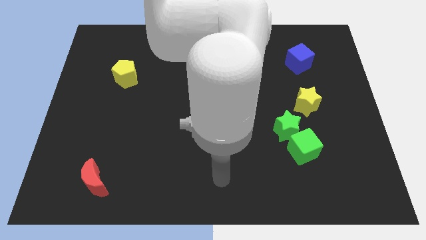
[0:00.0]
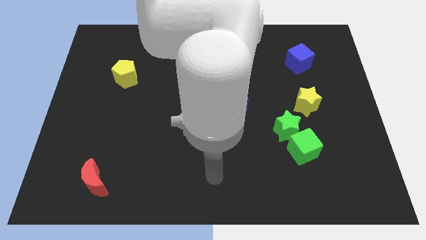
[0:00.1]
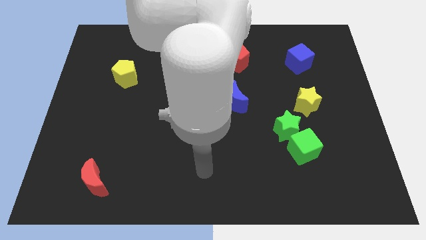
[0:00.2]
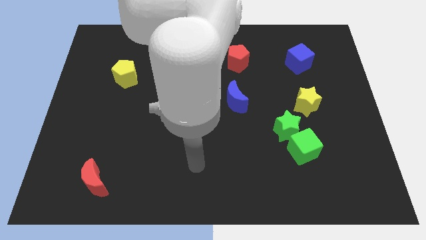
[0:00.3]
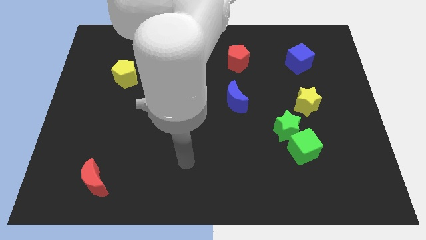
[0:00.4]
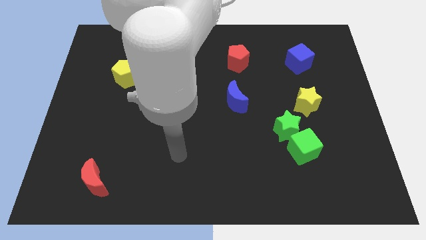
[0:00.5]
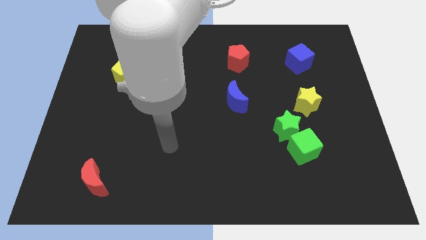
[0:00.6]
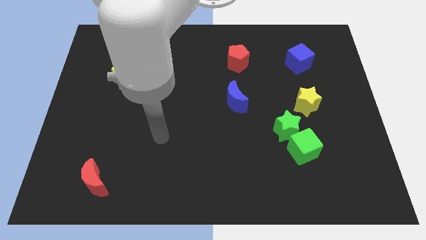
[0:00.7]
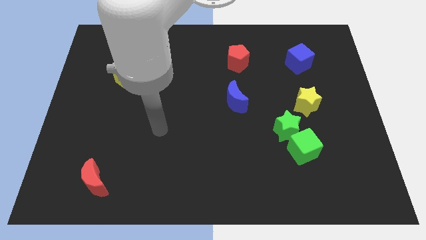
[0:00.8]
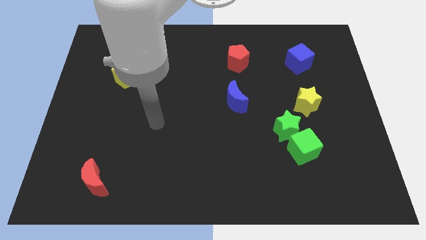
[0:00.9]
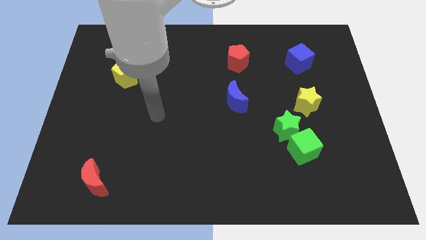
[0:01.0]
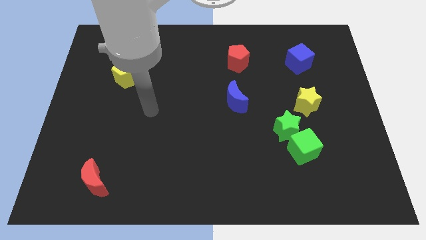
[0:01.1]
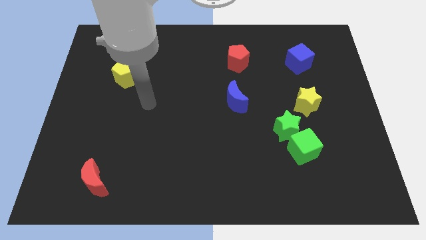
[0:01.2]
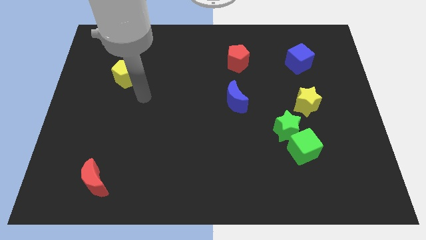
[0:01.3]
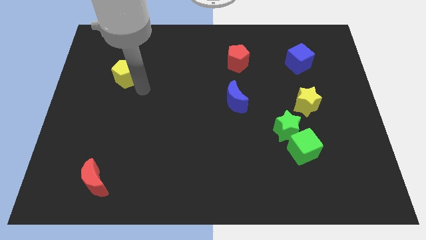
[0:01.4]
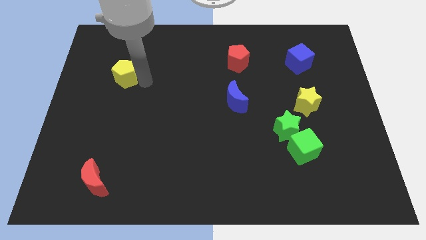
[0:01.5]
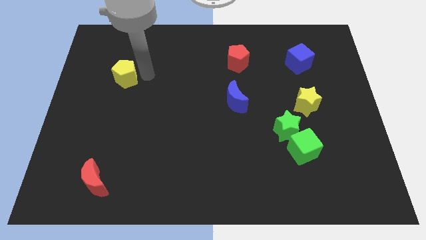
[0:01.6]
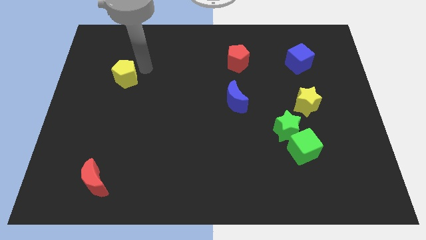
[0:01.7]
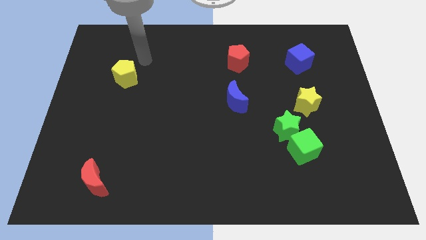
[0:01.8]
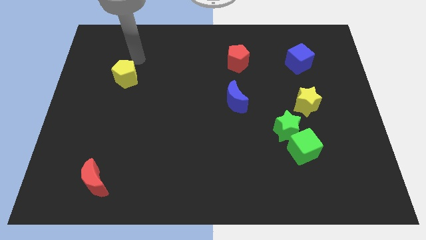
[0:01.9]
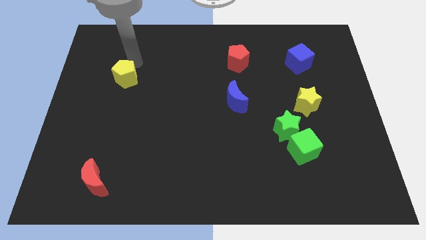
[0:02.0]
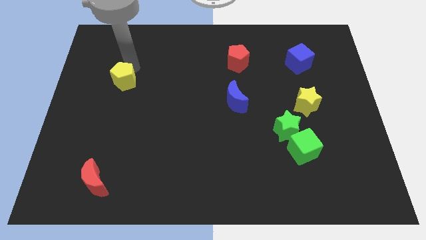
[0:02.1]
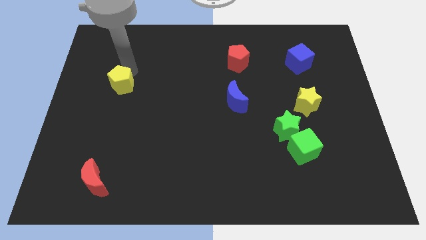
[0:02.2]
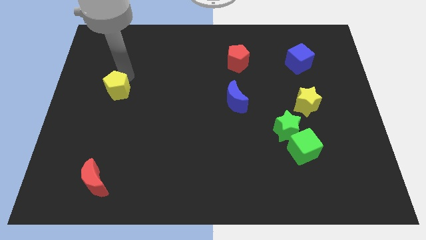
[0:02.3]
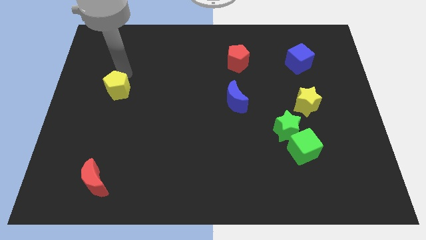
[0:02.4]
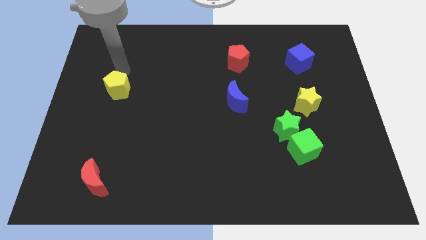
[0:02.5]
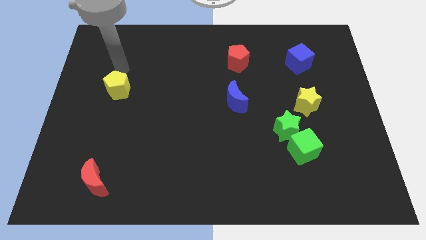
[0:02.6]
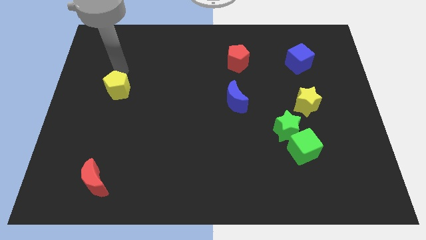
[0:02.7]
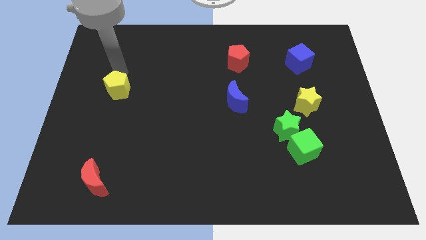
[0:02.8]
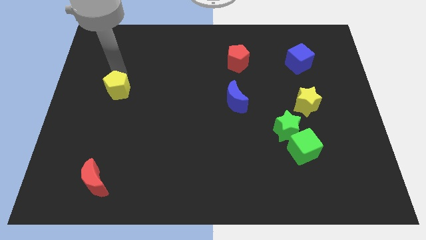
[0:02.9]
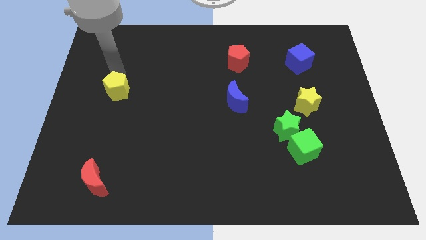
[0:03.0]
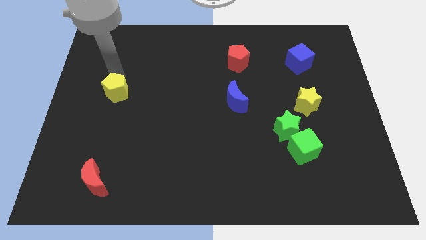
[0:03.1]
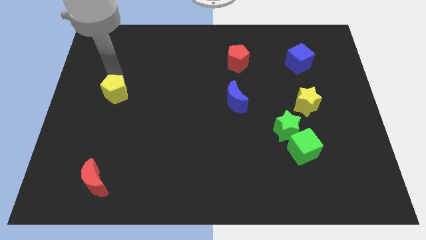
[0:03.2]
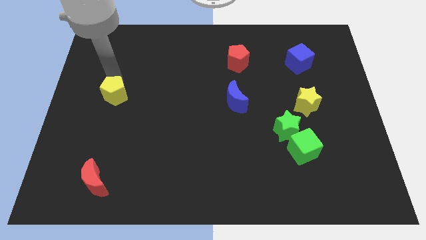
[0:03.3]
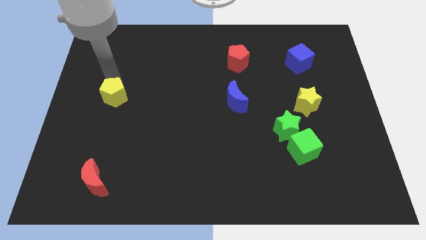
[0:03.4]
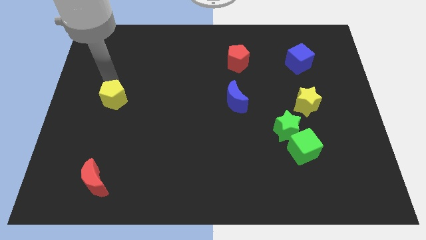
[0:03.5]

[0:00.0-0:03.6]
push the yellow pentagon down slightly

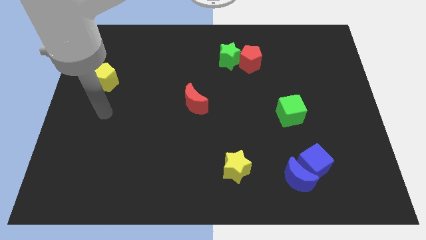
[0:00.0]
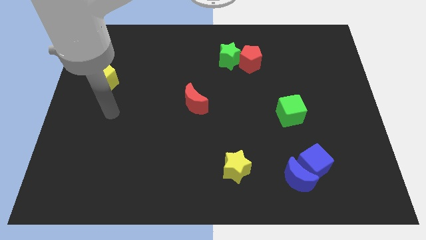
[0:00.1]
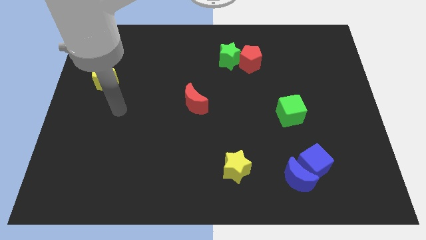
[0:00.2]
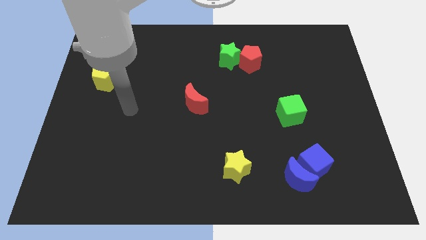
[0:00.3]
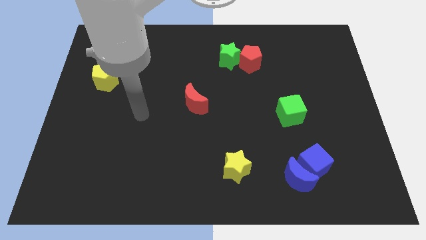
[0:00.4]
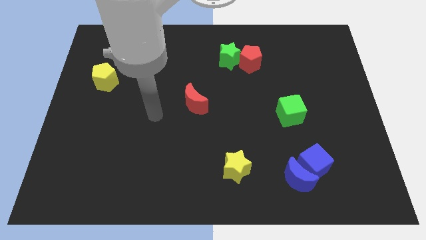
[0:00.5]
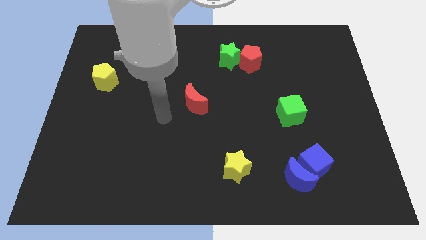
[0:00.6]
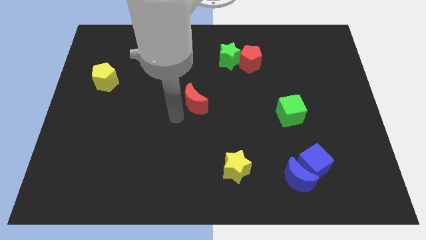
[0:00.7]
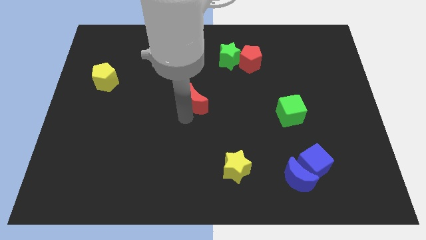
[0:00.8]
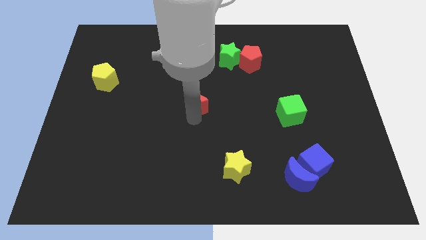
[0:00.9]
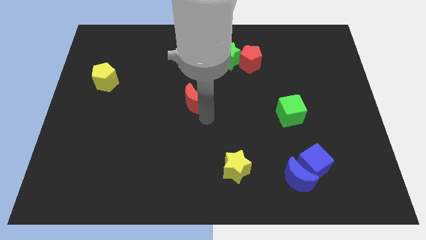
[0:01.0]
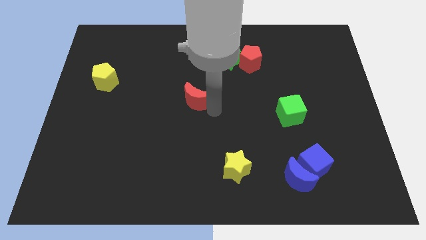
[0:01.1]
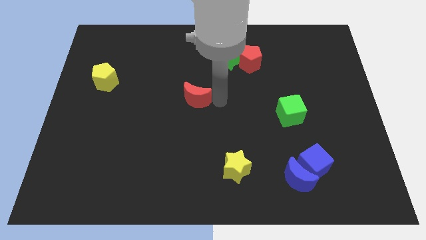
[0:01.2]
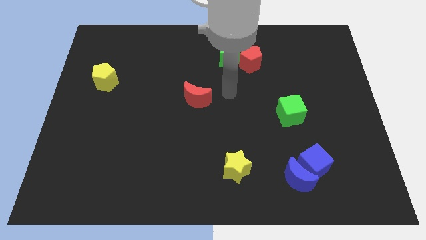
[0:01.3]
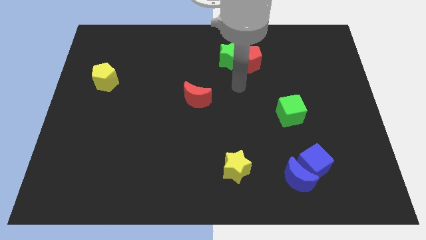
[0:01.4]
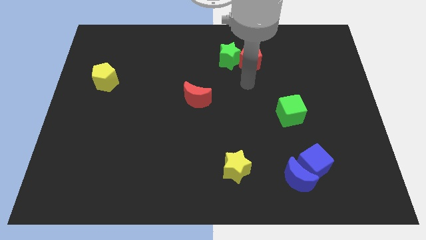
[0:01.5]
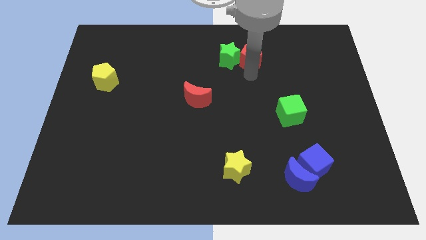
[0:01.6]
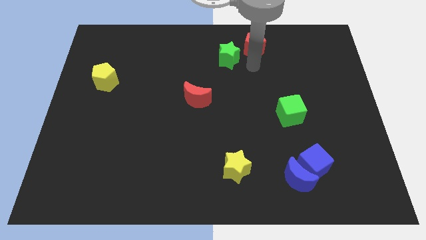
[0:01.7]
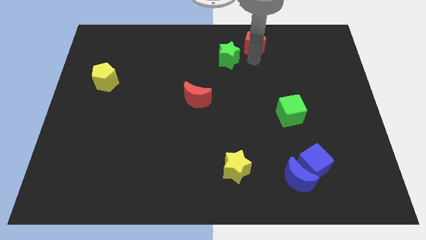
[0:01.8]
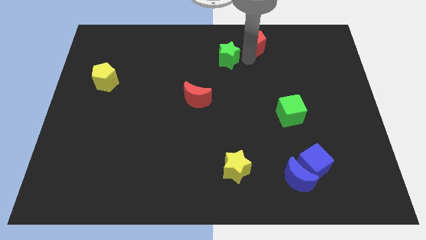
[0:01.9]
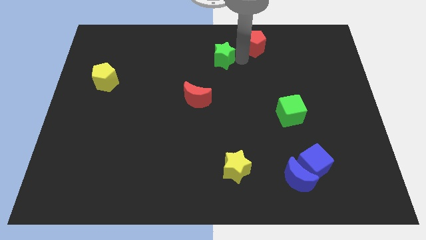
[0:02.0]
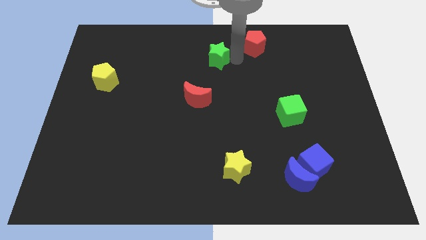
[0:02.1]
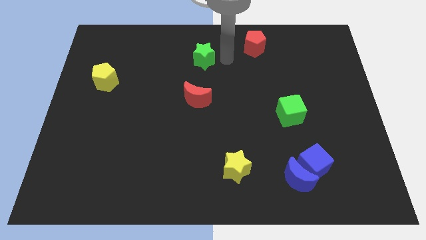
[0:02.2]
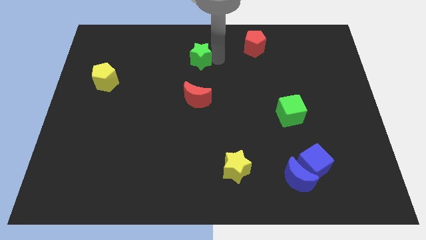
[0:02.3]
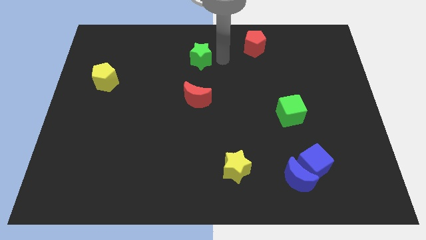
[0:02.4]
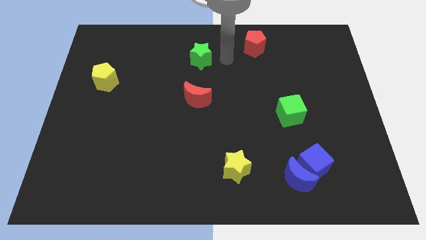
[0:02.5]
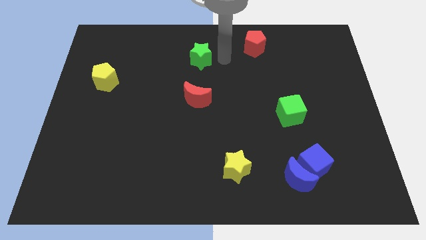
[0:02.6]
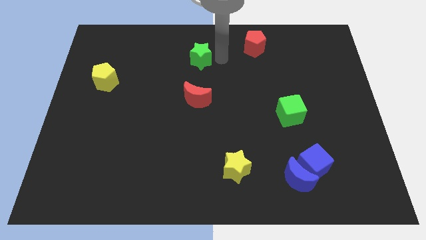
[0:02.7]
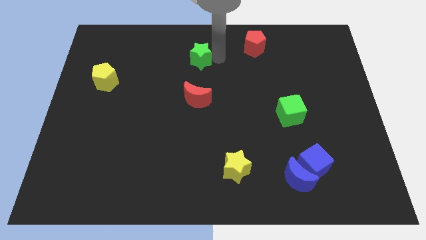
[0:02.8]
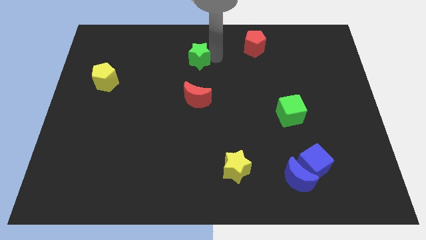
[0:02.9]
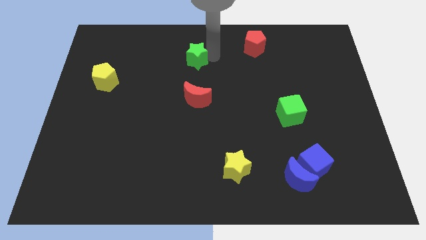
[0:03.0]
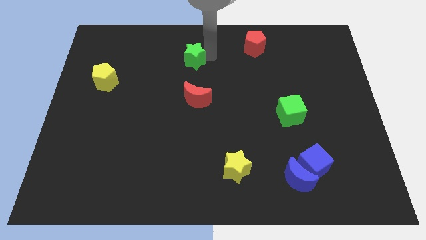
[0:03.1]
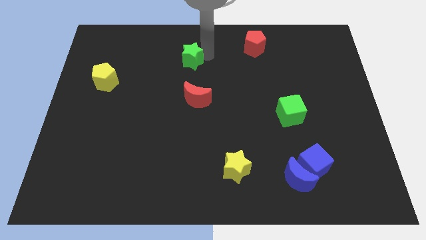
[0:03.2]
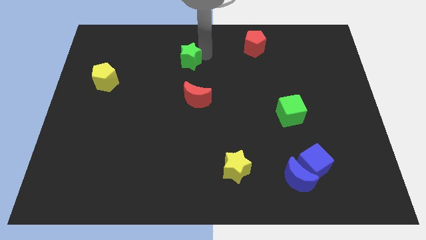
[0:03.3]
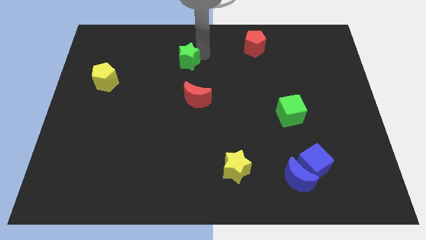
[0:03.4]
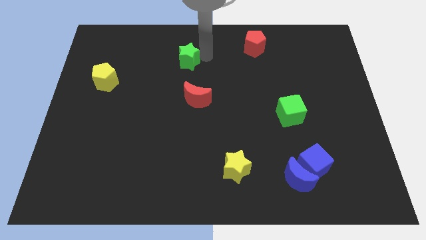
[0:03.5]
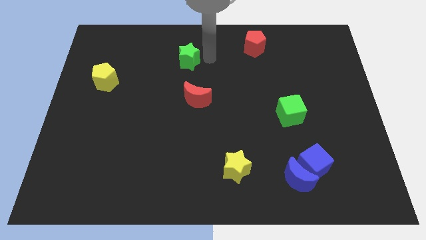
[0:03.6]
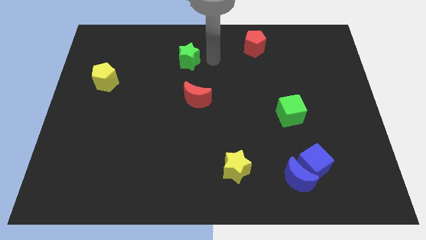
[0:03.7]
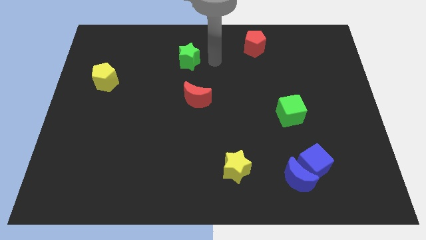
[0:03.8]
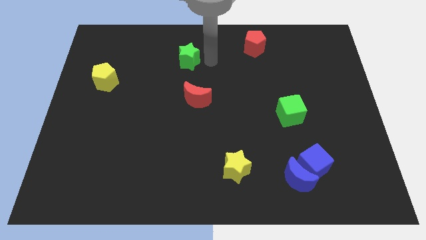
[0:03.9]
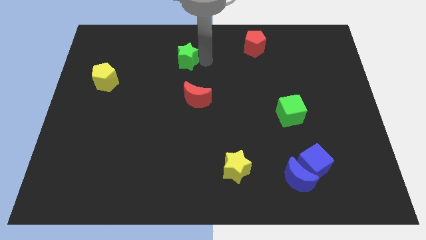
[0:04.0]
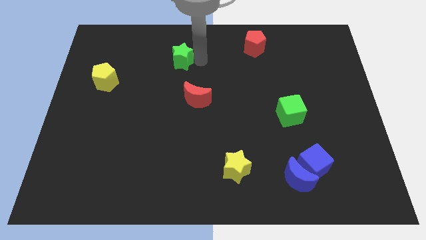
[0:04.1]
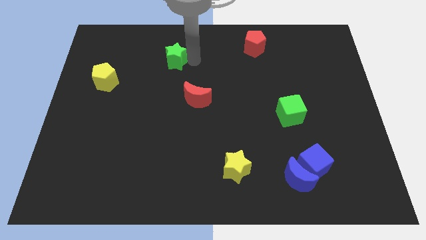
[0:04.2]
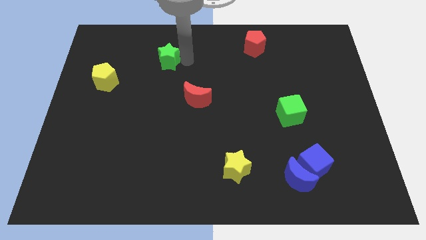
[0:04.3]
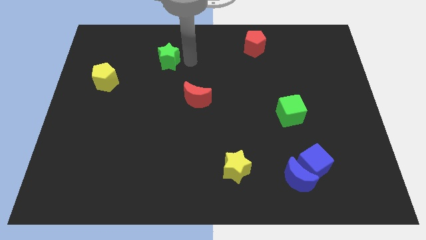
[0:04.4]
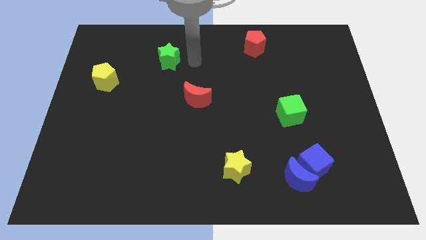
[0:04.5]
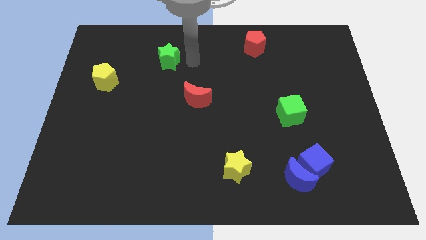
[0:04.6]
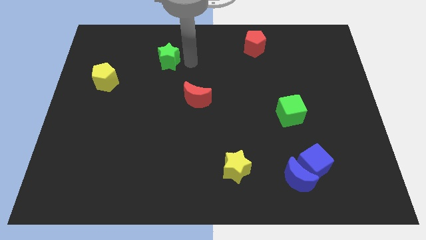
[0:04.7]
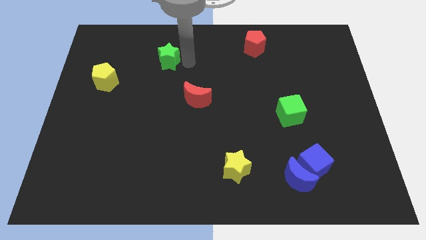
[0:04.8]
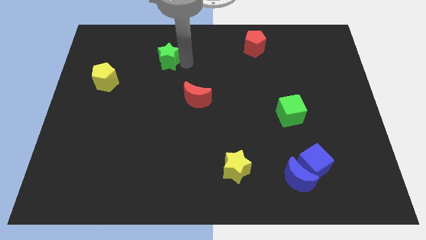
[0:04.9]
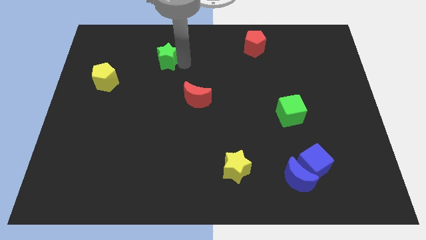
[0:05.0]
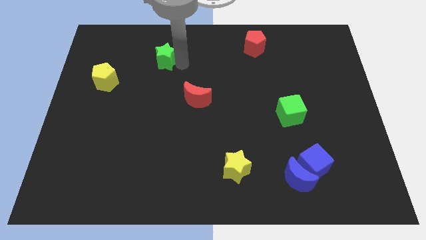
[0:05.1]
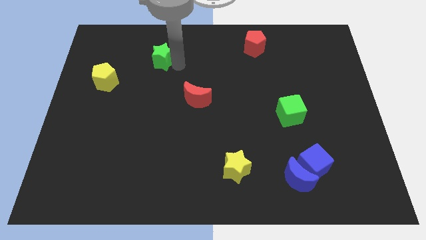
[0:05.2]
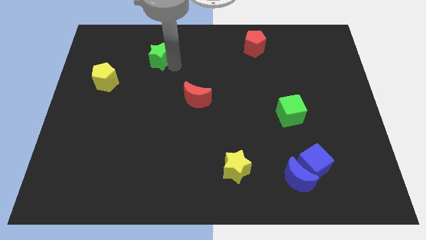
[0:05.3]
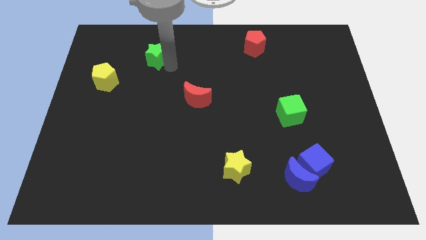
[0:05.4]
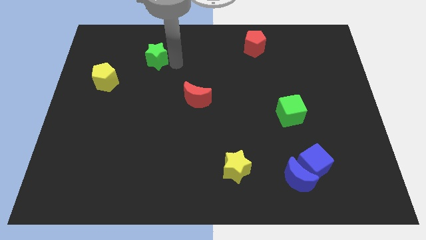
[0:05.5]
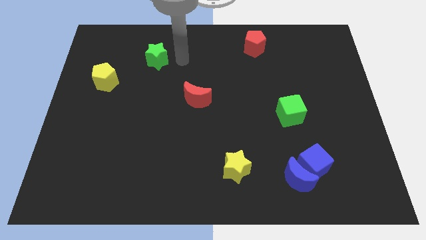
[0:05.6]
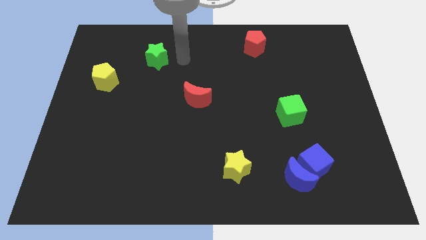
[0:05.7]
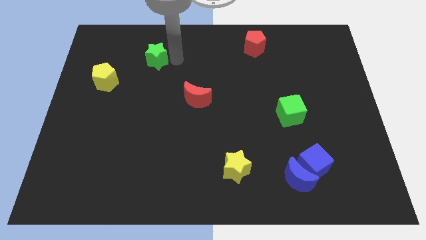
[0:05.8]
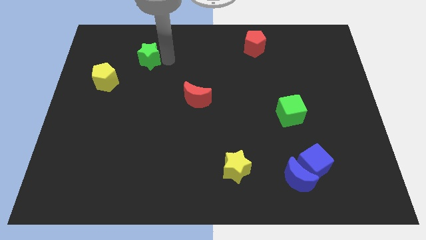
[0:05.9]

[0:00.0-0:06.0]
push the green star to the left
